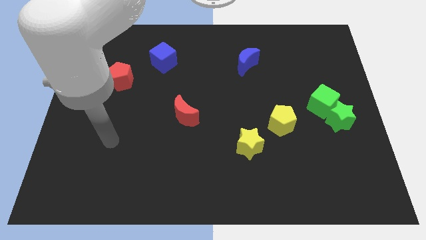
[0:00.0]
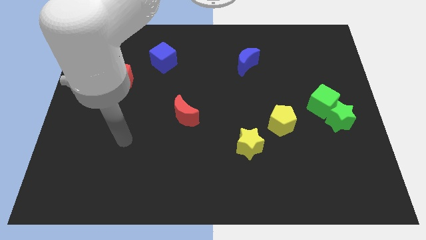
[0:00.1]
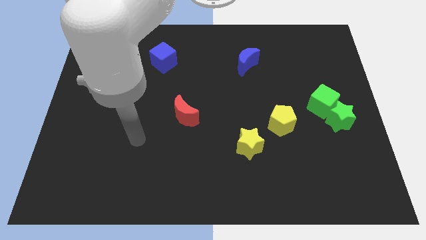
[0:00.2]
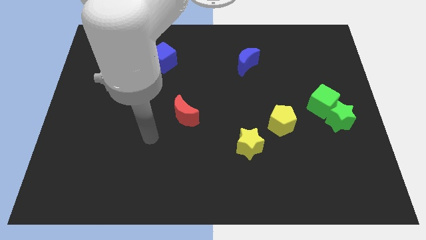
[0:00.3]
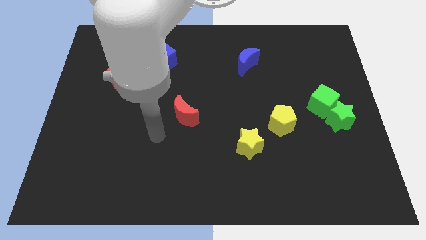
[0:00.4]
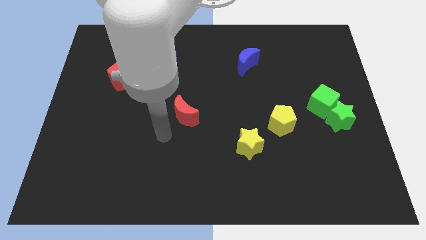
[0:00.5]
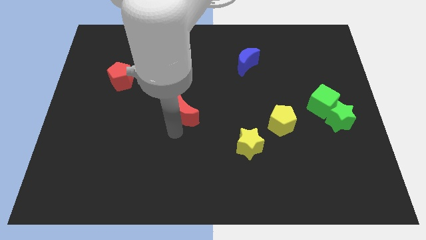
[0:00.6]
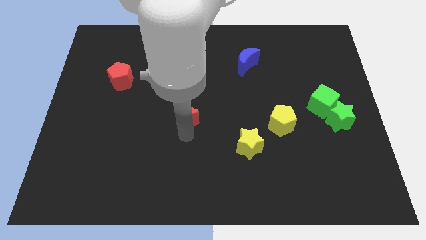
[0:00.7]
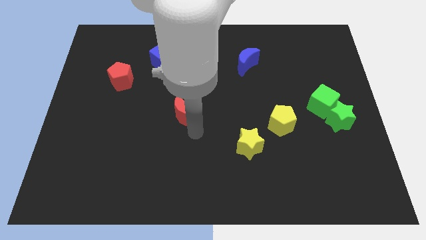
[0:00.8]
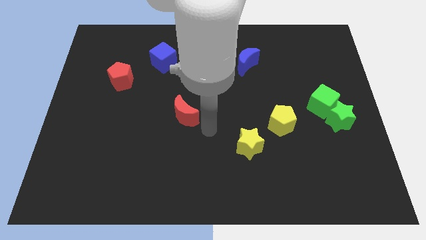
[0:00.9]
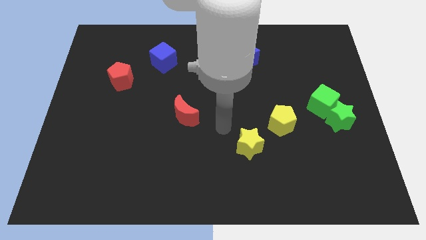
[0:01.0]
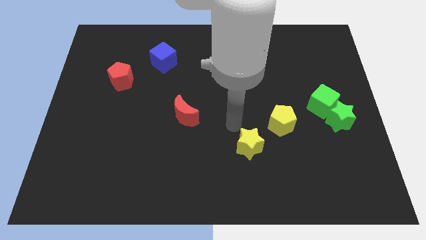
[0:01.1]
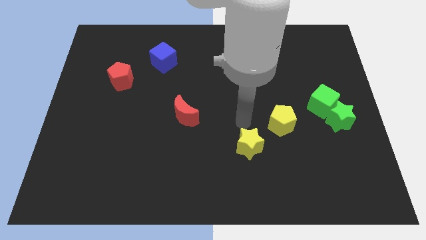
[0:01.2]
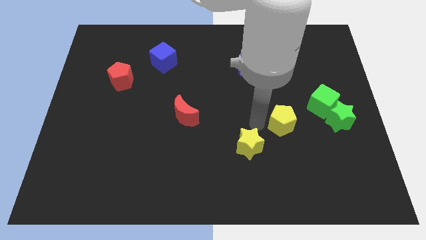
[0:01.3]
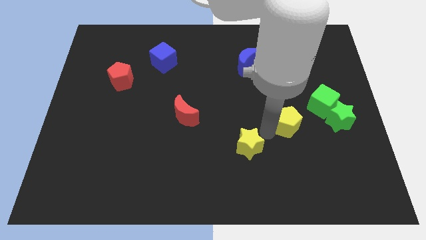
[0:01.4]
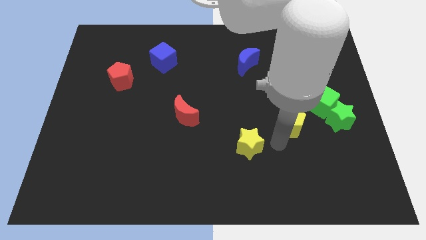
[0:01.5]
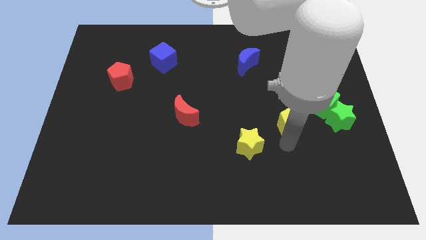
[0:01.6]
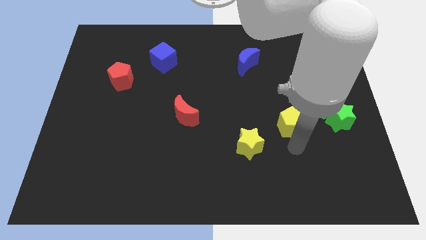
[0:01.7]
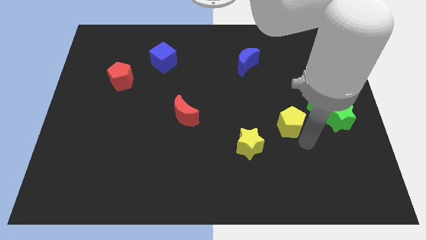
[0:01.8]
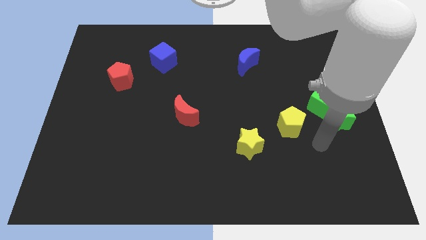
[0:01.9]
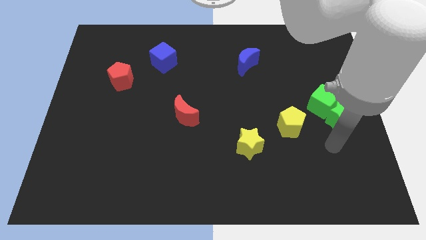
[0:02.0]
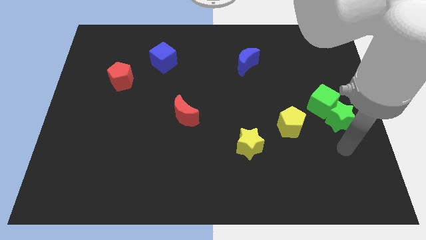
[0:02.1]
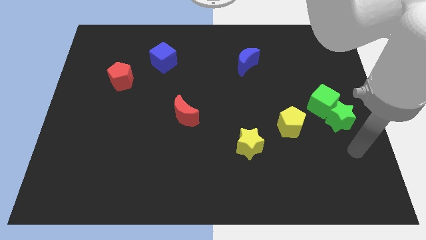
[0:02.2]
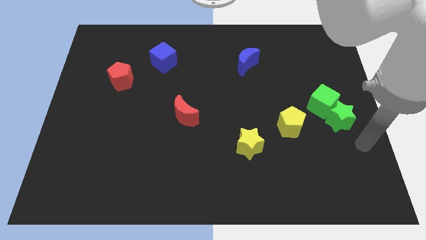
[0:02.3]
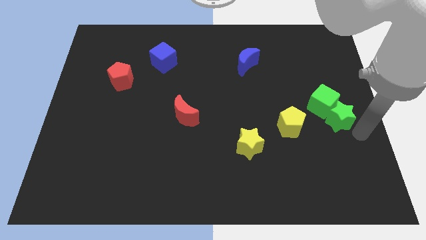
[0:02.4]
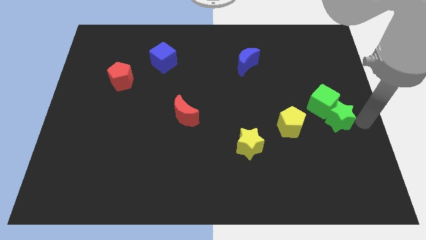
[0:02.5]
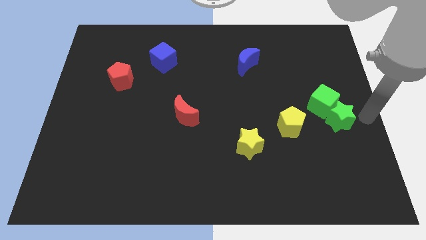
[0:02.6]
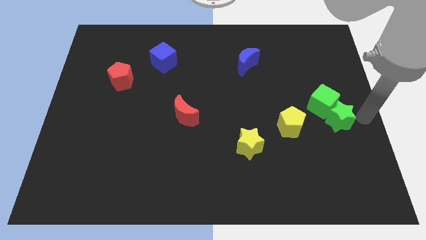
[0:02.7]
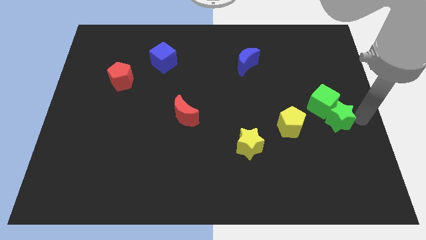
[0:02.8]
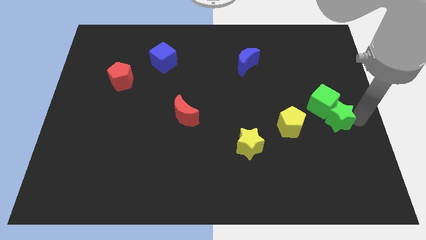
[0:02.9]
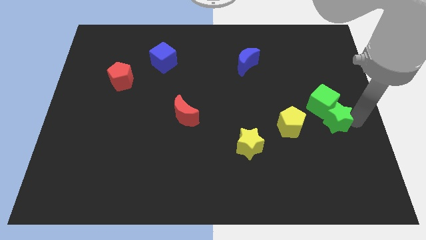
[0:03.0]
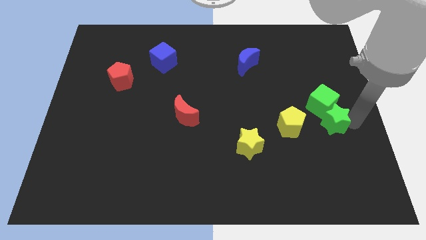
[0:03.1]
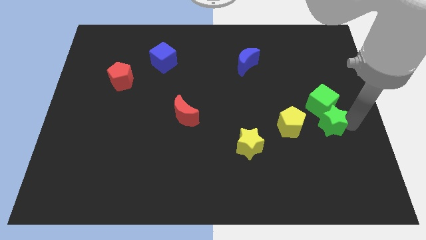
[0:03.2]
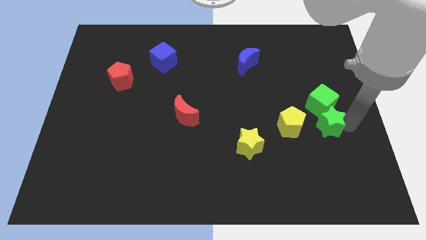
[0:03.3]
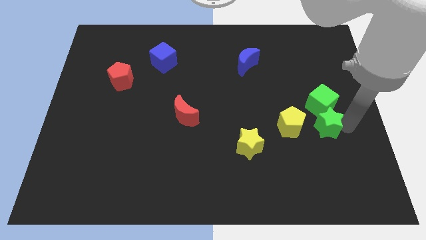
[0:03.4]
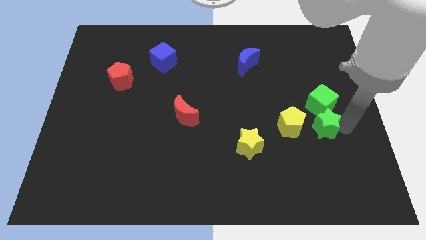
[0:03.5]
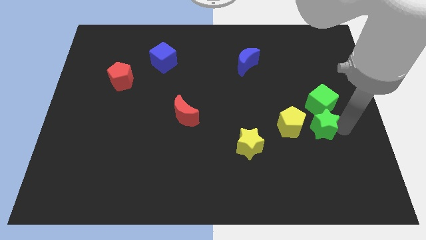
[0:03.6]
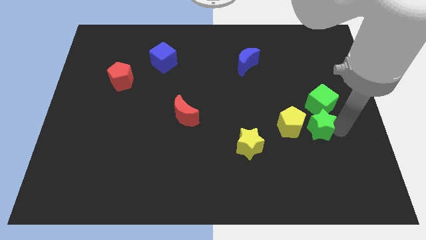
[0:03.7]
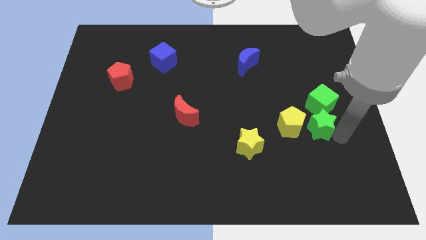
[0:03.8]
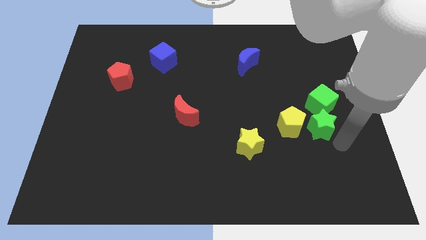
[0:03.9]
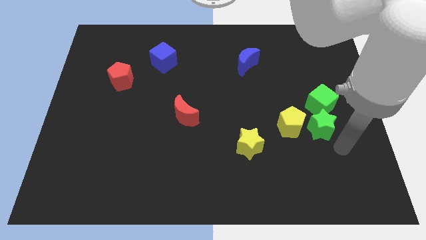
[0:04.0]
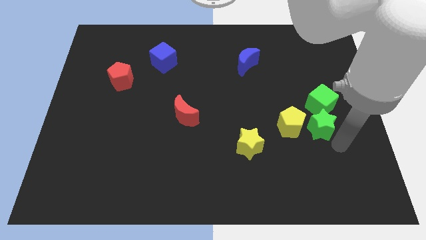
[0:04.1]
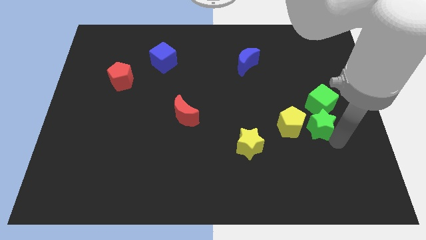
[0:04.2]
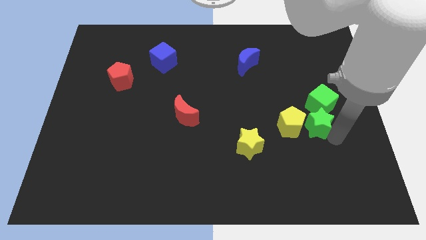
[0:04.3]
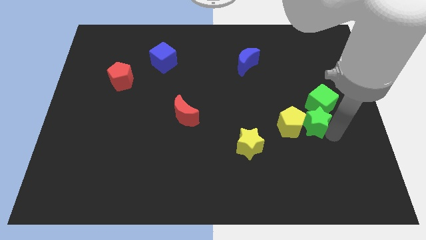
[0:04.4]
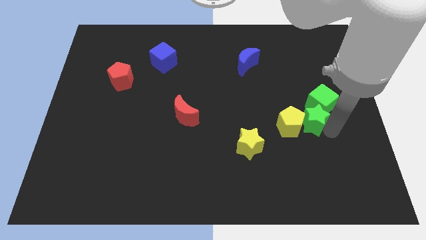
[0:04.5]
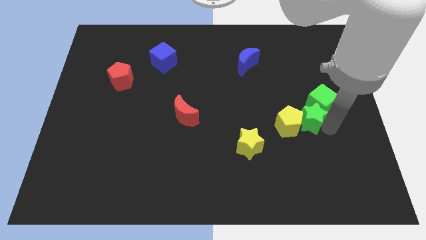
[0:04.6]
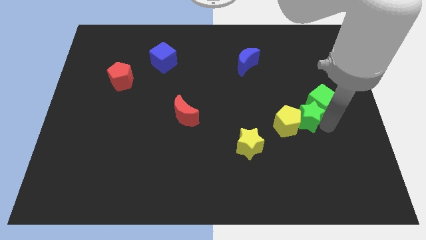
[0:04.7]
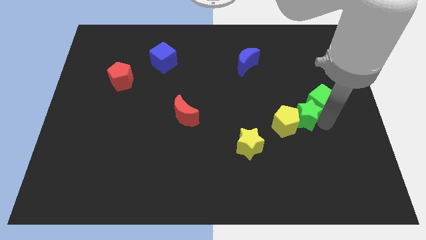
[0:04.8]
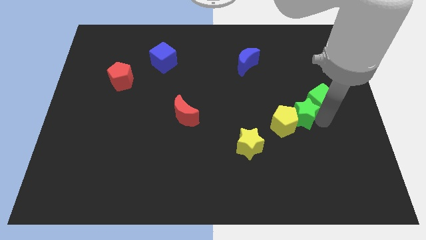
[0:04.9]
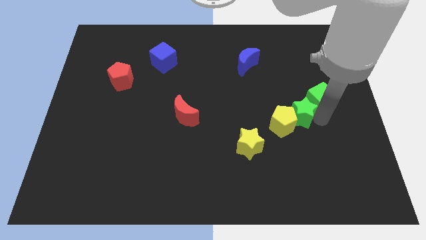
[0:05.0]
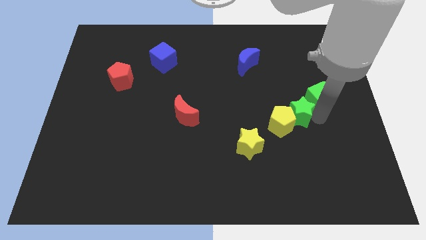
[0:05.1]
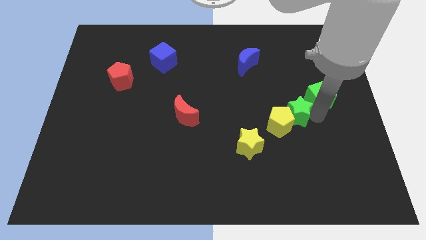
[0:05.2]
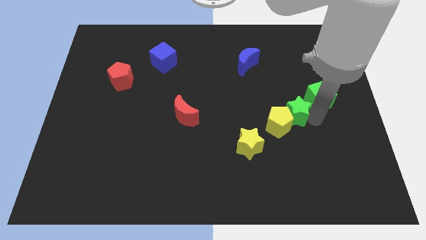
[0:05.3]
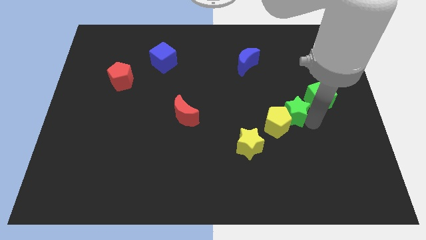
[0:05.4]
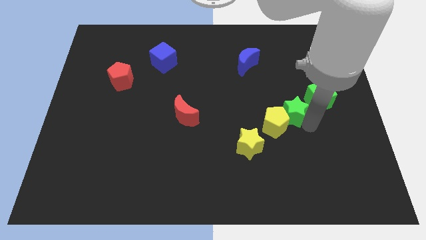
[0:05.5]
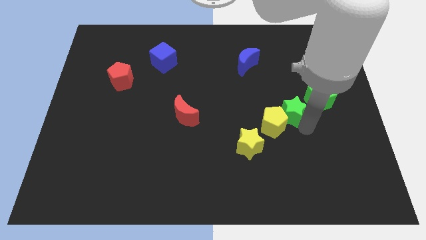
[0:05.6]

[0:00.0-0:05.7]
slightly slide the green star up and left

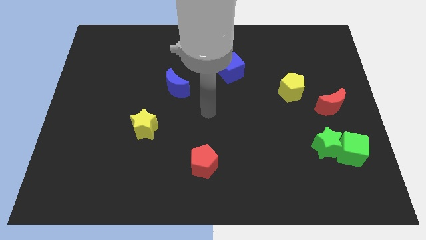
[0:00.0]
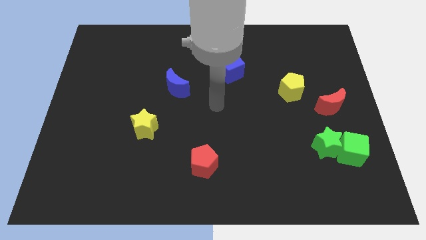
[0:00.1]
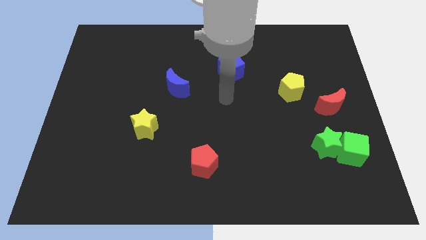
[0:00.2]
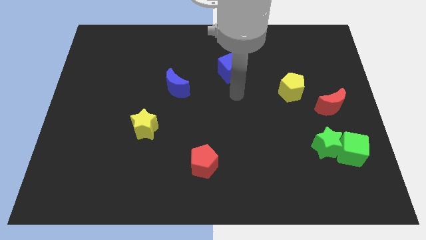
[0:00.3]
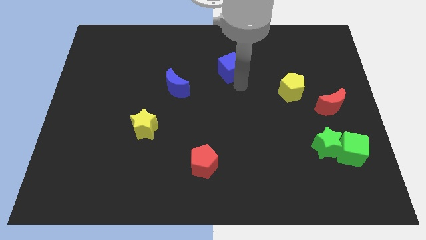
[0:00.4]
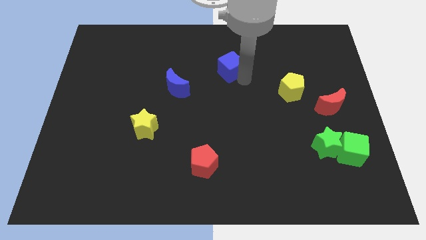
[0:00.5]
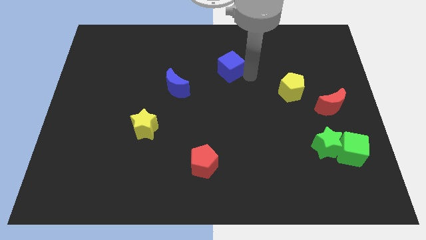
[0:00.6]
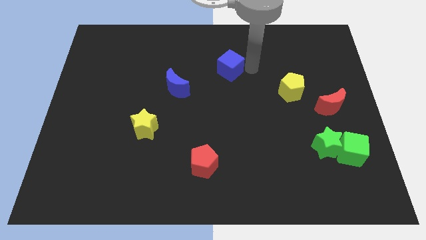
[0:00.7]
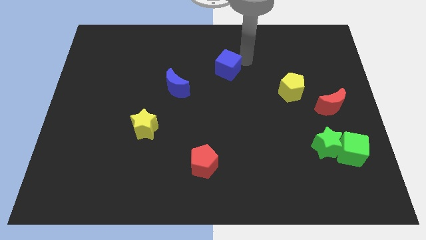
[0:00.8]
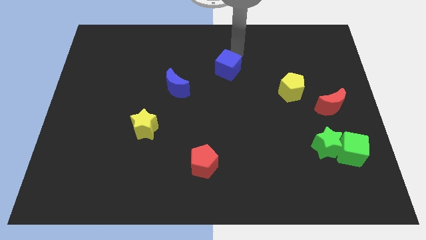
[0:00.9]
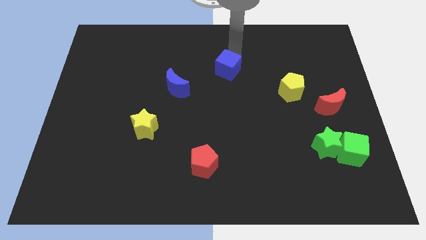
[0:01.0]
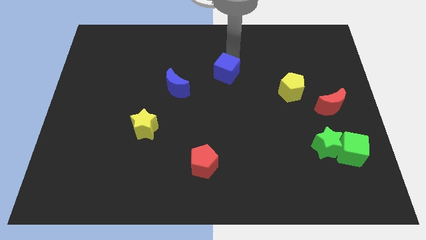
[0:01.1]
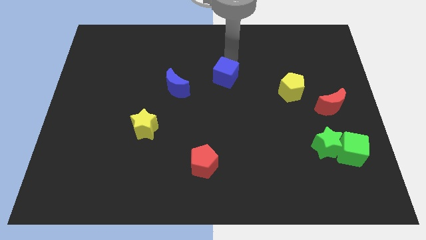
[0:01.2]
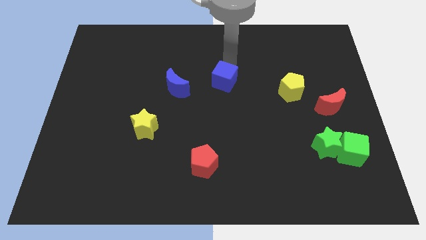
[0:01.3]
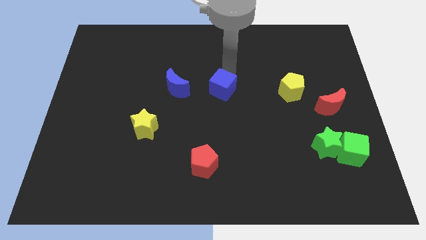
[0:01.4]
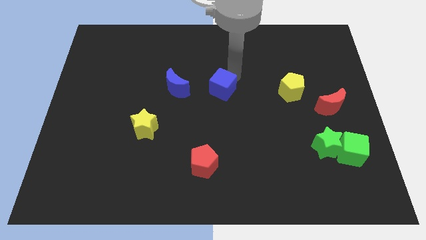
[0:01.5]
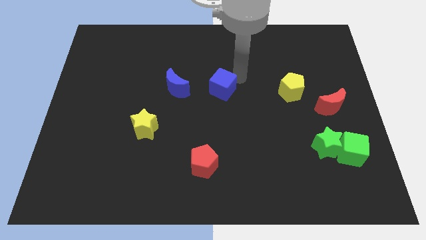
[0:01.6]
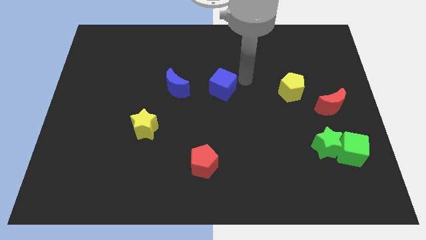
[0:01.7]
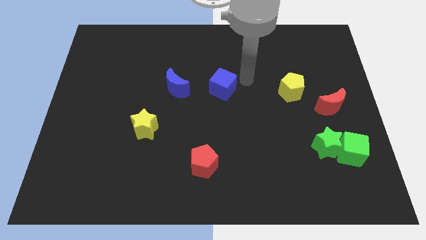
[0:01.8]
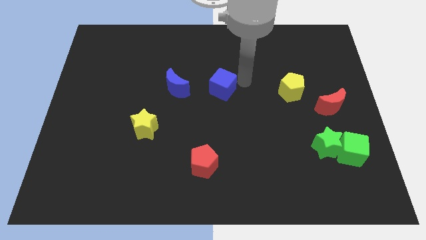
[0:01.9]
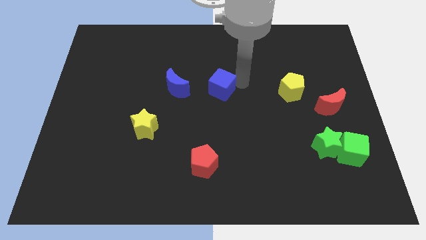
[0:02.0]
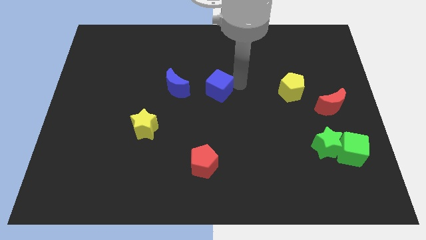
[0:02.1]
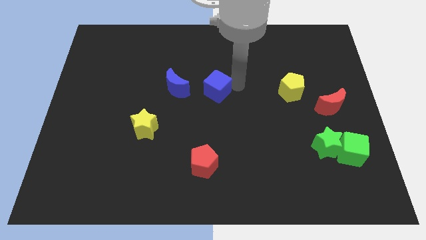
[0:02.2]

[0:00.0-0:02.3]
slightly push the blue cube down and then to the left
